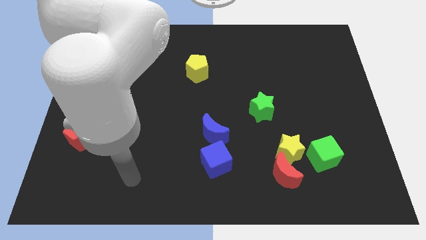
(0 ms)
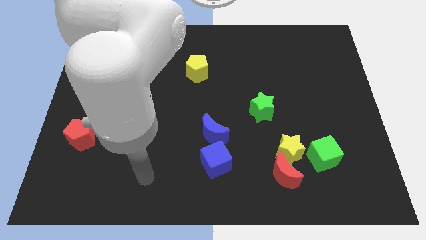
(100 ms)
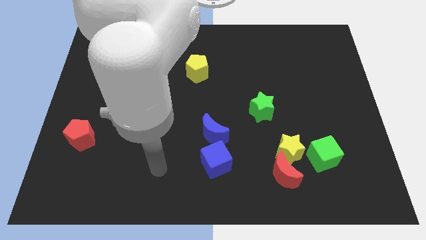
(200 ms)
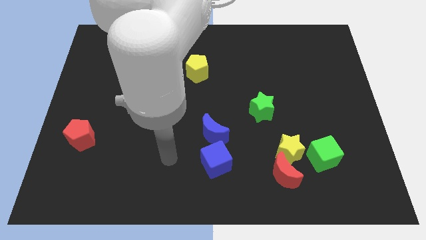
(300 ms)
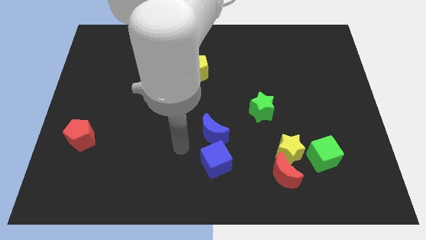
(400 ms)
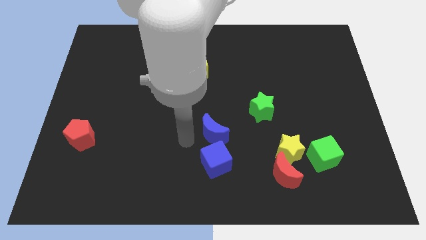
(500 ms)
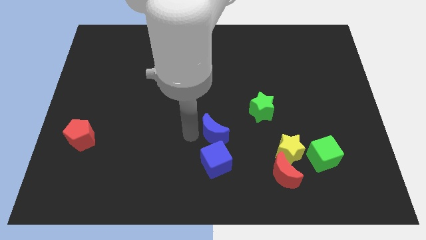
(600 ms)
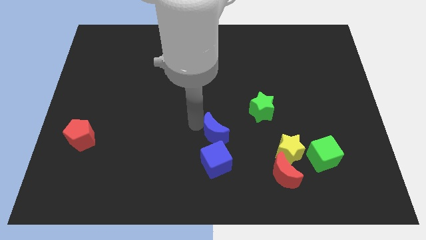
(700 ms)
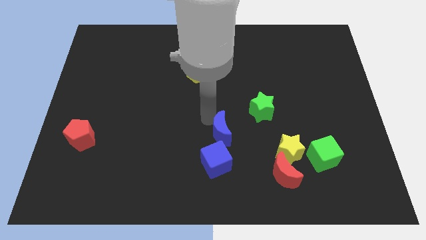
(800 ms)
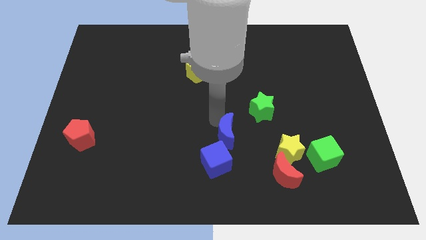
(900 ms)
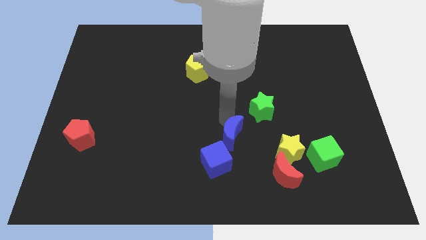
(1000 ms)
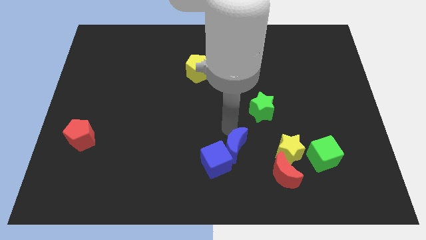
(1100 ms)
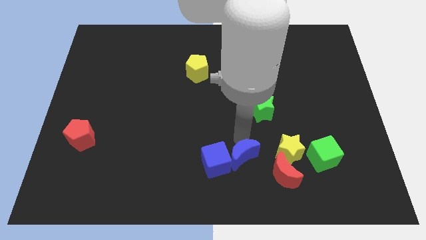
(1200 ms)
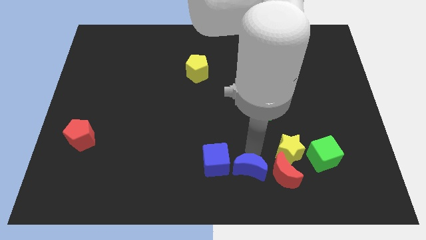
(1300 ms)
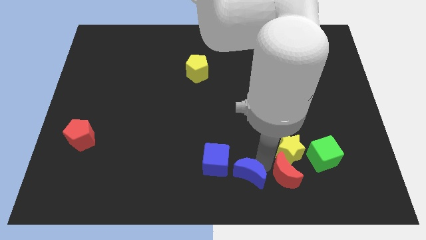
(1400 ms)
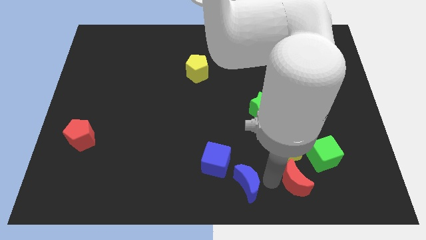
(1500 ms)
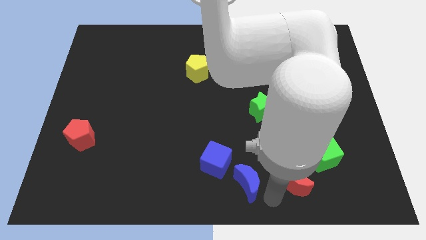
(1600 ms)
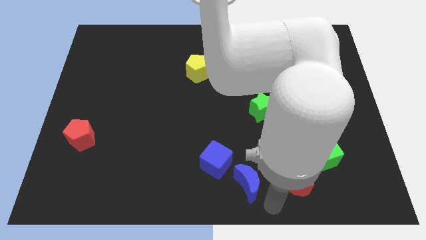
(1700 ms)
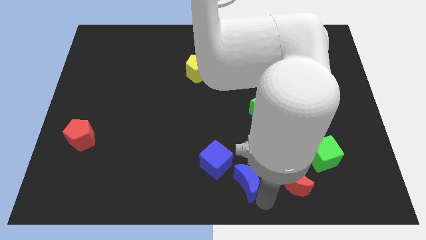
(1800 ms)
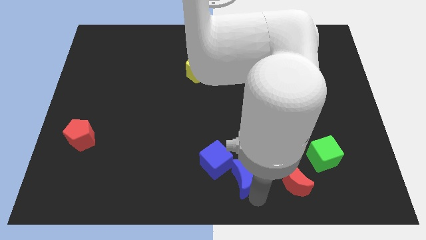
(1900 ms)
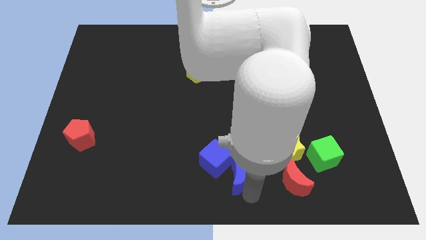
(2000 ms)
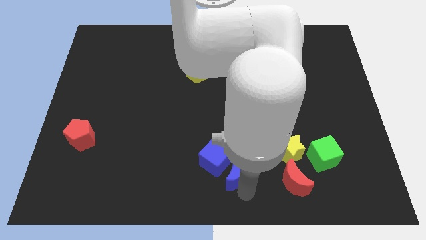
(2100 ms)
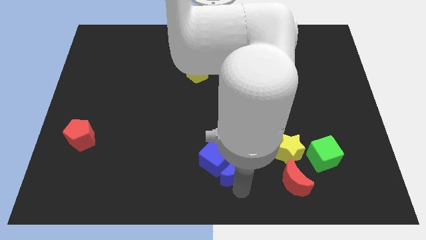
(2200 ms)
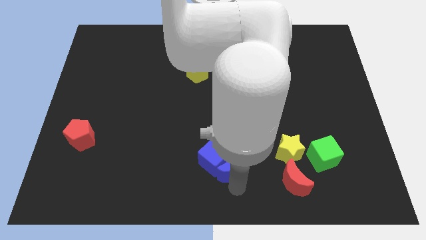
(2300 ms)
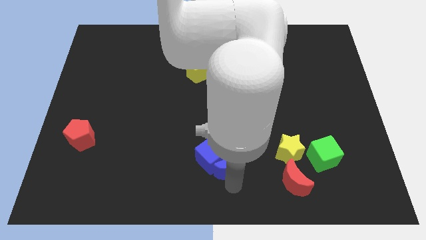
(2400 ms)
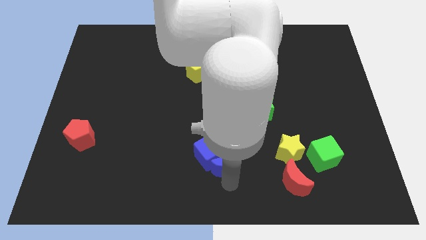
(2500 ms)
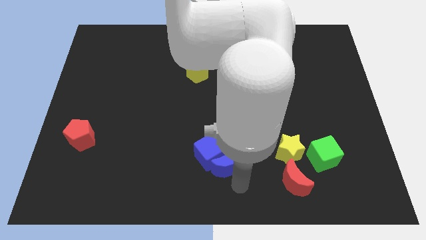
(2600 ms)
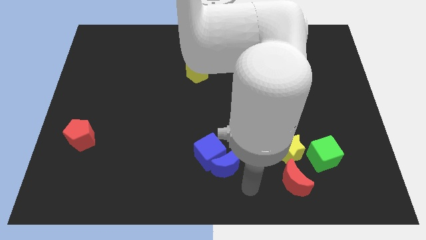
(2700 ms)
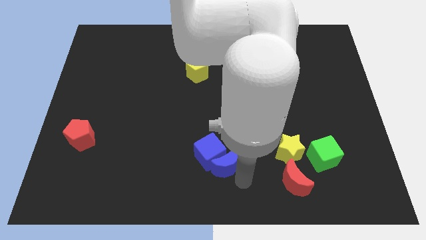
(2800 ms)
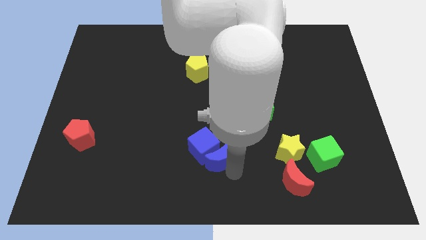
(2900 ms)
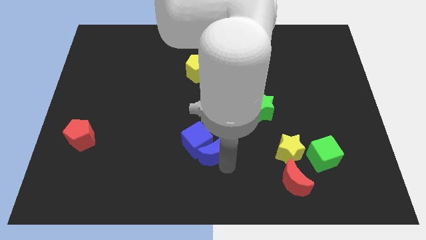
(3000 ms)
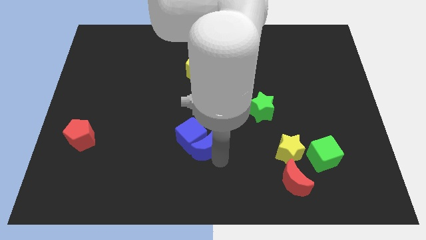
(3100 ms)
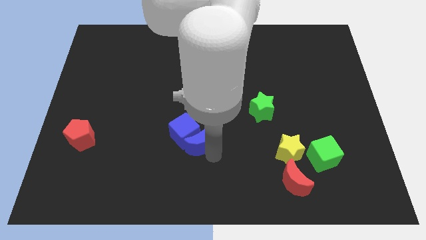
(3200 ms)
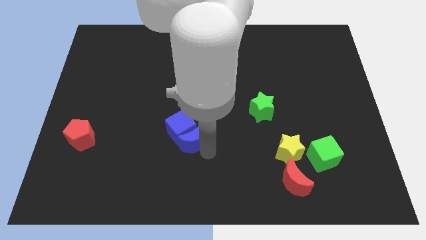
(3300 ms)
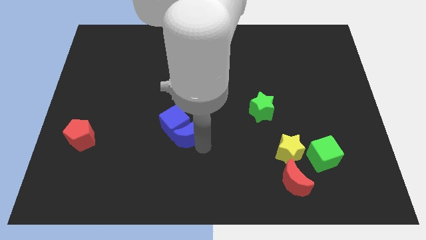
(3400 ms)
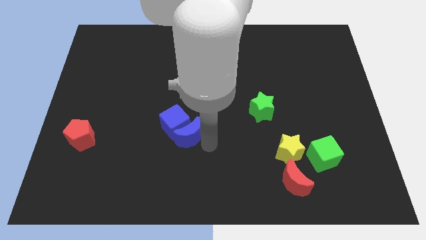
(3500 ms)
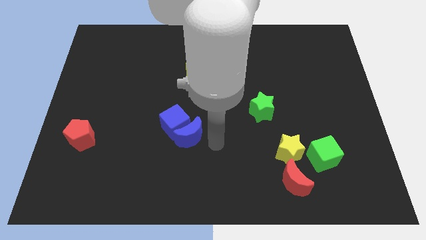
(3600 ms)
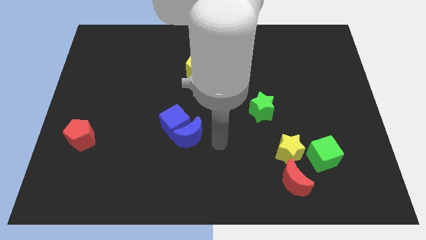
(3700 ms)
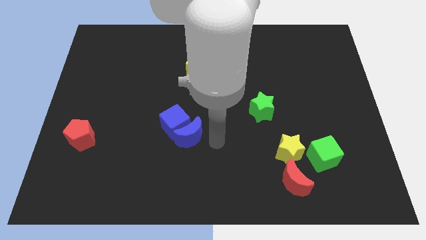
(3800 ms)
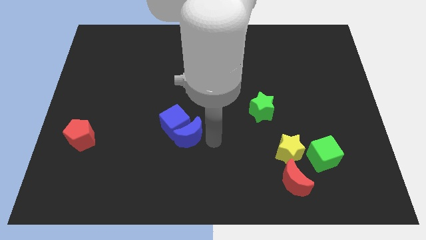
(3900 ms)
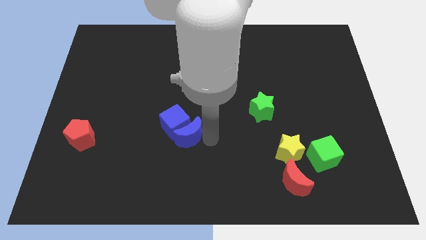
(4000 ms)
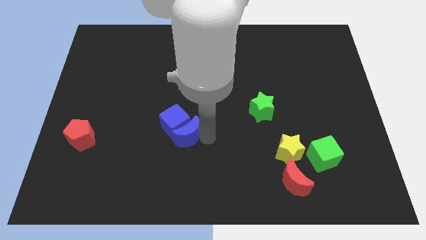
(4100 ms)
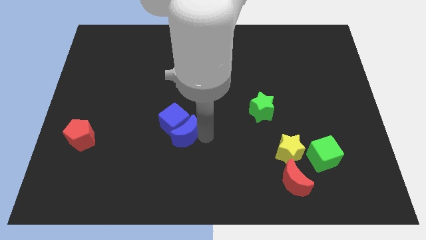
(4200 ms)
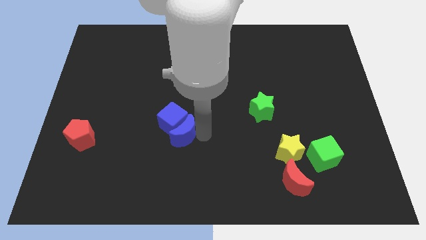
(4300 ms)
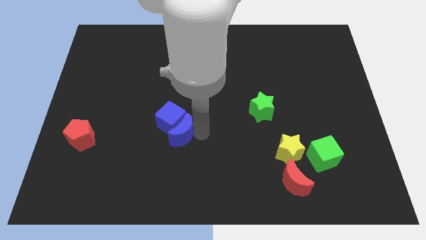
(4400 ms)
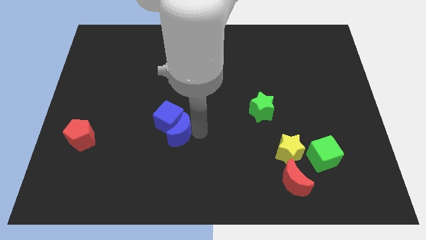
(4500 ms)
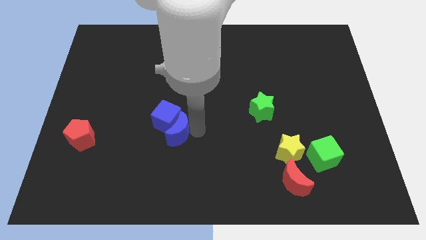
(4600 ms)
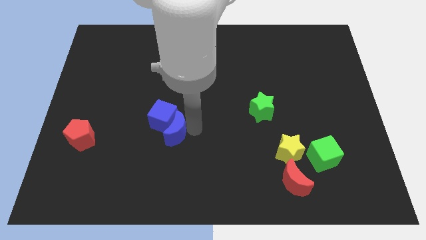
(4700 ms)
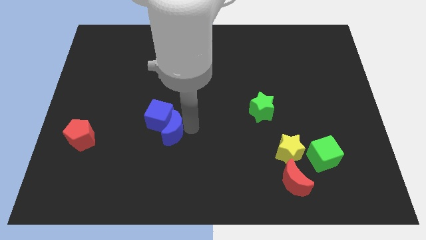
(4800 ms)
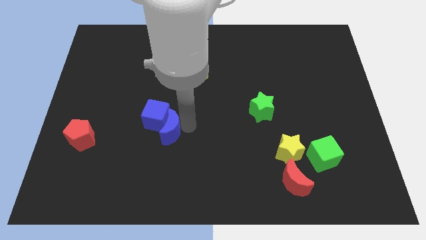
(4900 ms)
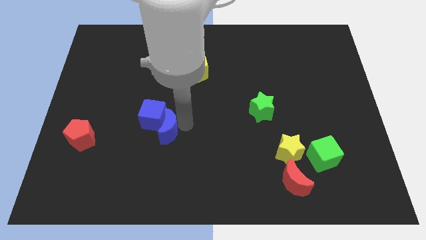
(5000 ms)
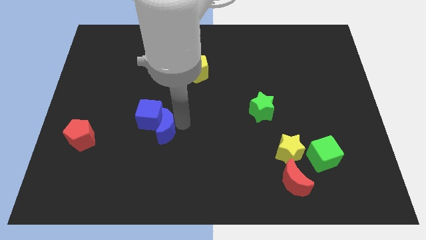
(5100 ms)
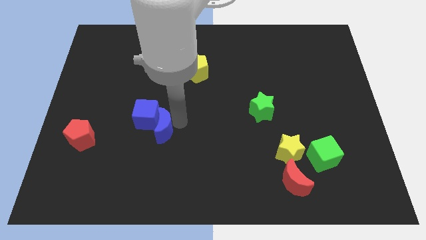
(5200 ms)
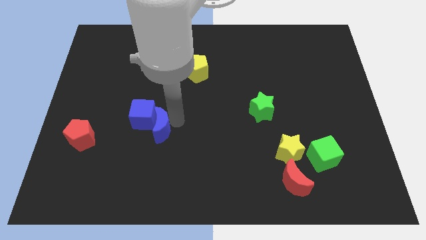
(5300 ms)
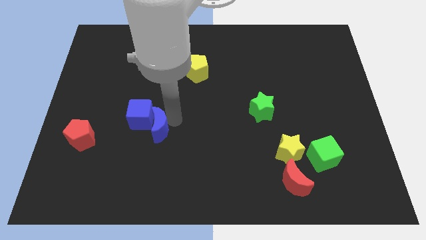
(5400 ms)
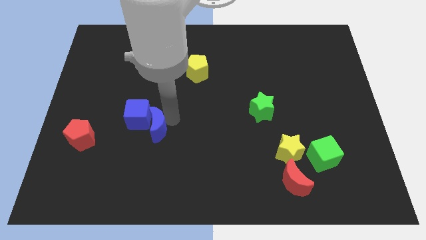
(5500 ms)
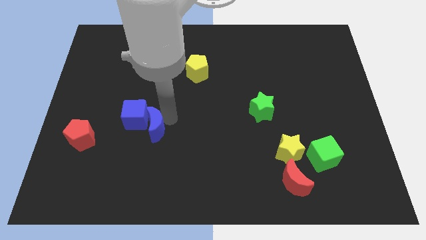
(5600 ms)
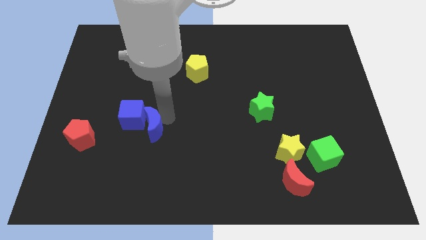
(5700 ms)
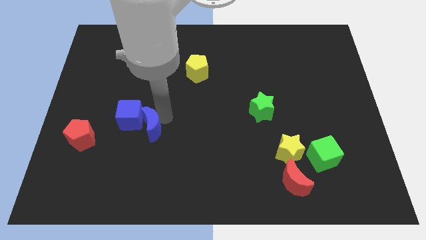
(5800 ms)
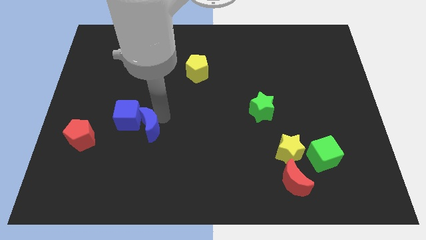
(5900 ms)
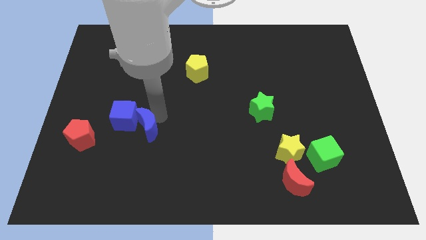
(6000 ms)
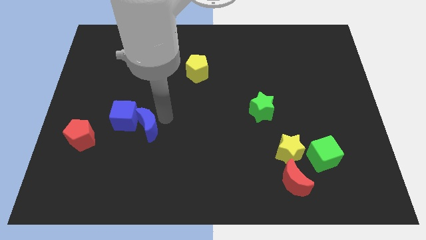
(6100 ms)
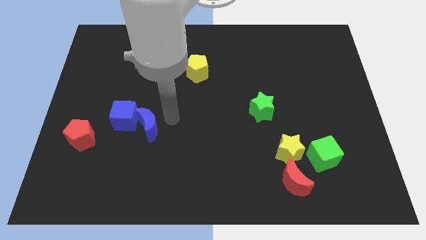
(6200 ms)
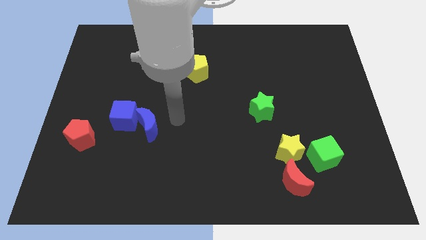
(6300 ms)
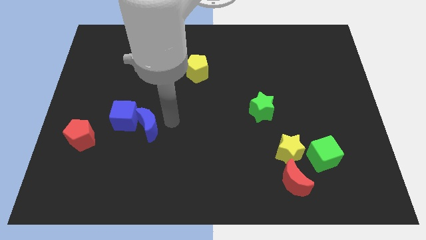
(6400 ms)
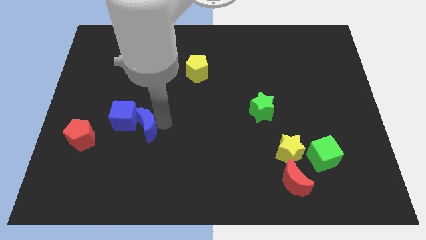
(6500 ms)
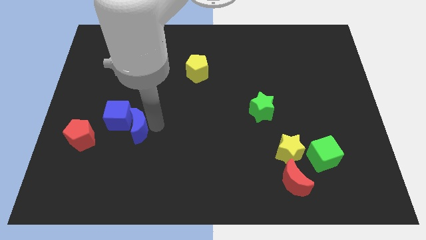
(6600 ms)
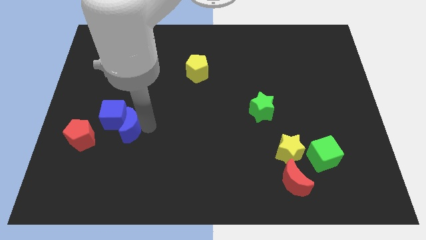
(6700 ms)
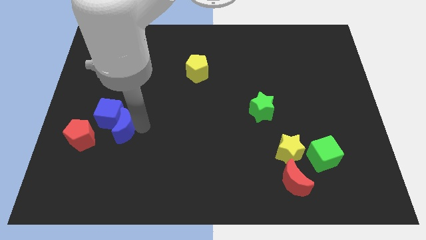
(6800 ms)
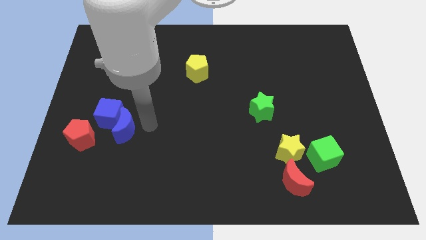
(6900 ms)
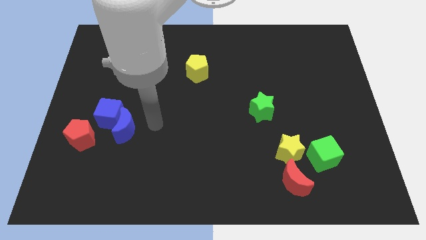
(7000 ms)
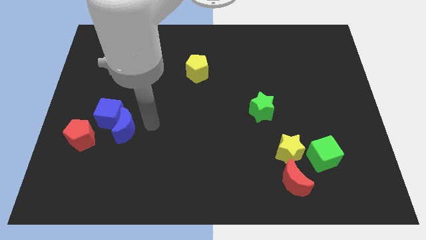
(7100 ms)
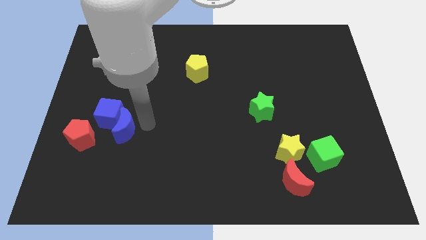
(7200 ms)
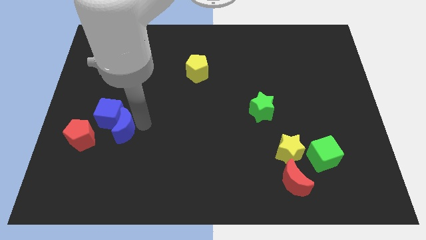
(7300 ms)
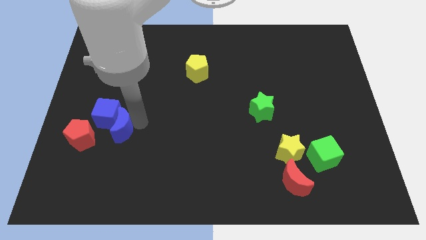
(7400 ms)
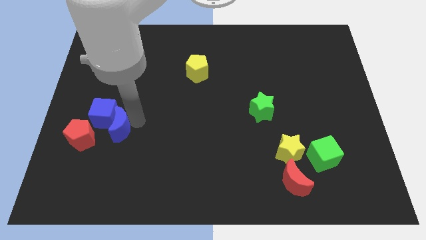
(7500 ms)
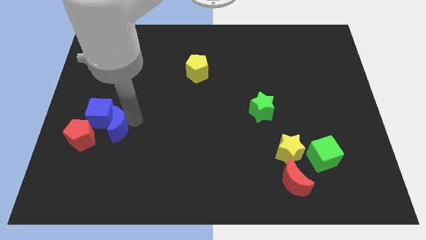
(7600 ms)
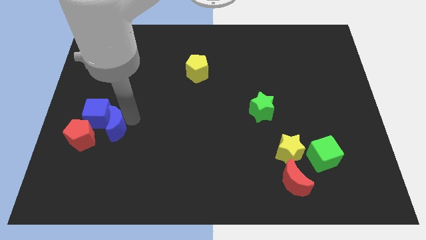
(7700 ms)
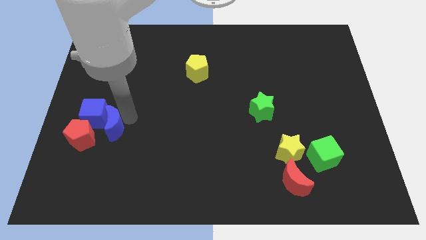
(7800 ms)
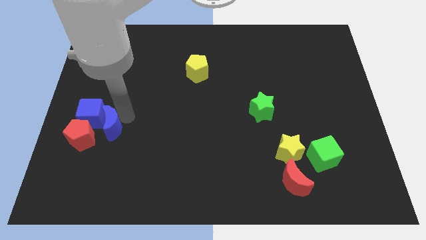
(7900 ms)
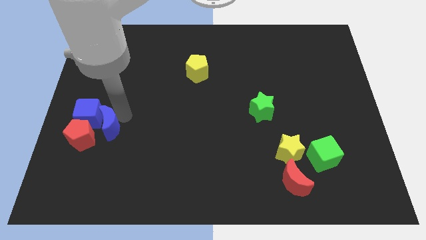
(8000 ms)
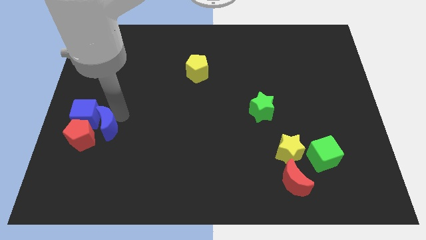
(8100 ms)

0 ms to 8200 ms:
move the blue moon next to the red pentagon
